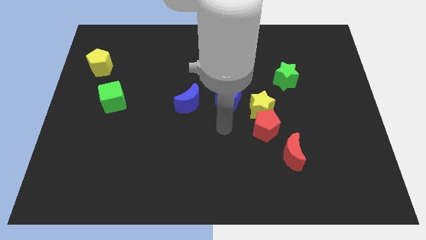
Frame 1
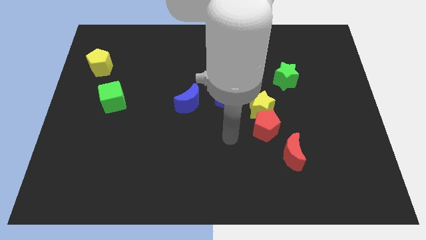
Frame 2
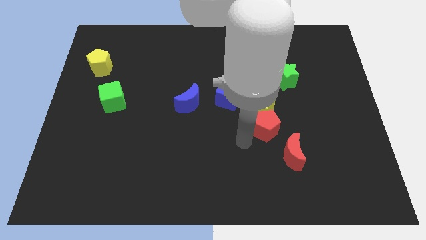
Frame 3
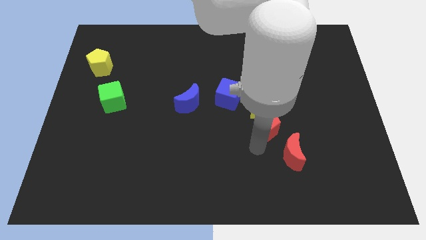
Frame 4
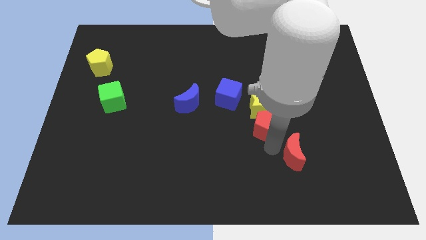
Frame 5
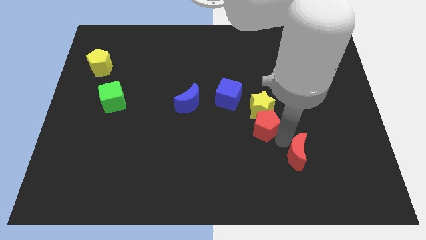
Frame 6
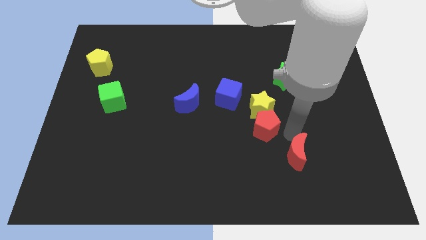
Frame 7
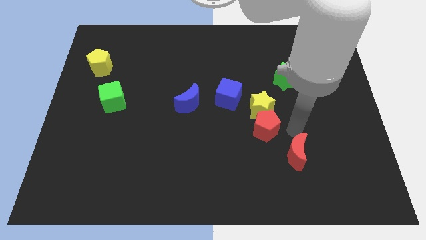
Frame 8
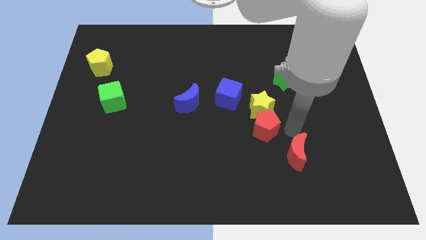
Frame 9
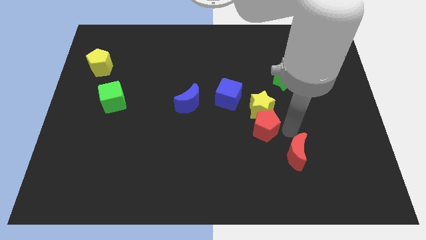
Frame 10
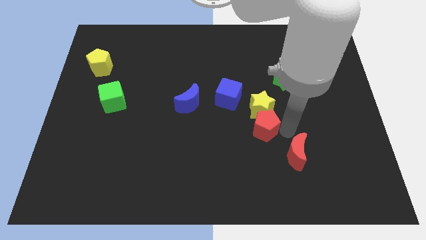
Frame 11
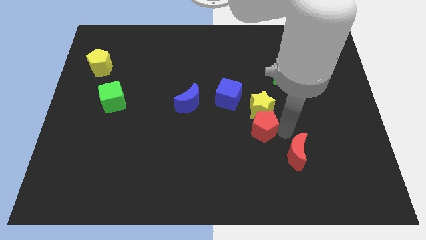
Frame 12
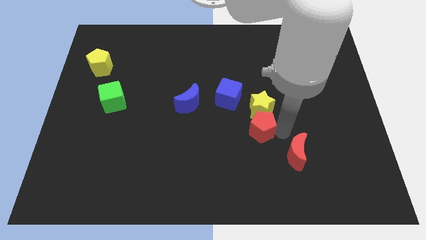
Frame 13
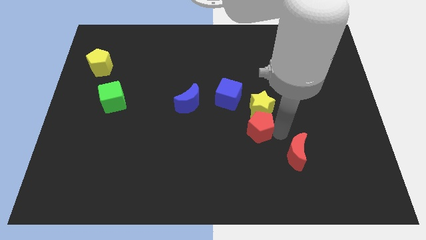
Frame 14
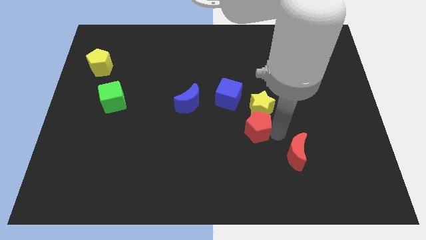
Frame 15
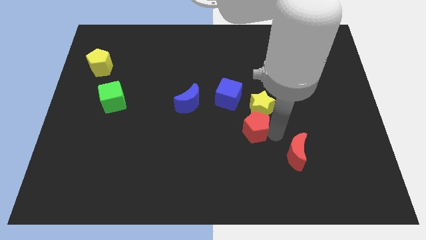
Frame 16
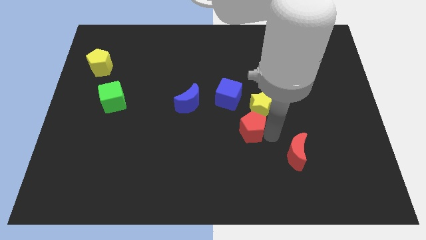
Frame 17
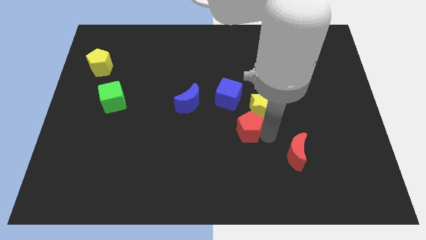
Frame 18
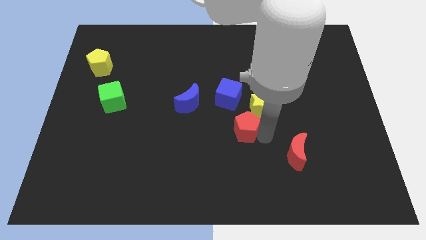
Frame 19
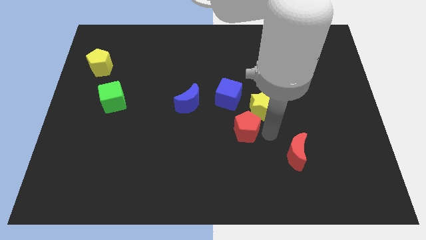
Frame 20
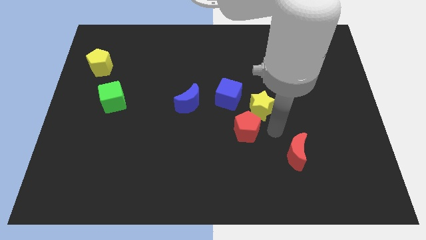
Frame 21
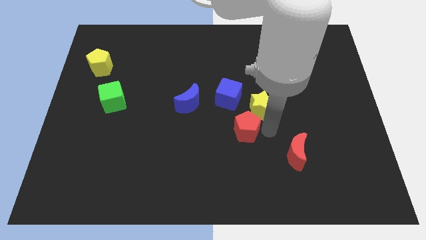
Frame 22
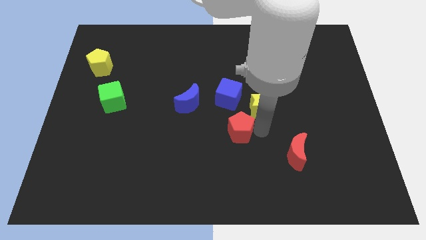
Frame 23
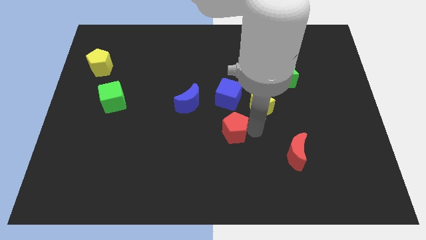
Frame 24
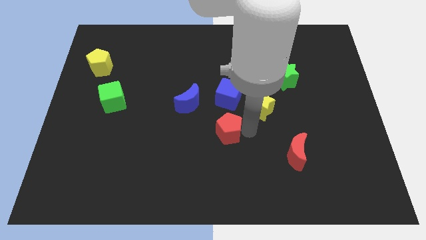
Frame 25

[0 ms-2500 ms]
separate the red pentagon from the yellow star and red moon

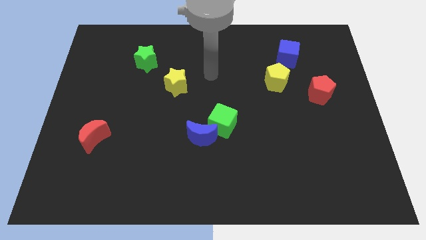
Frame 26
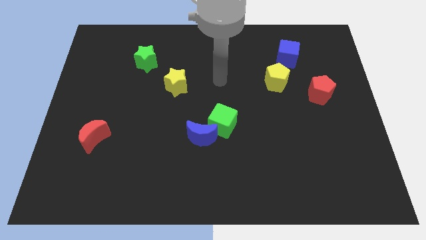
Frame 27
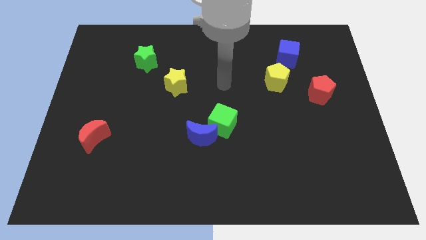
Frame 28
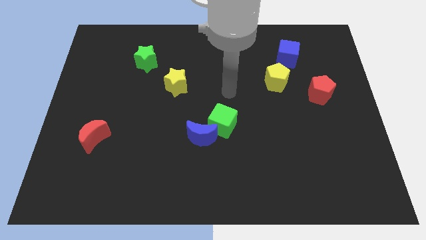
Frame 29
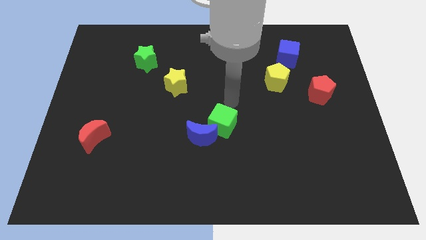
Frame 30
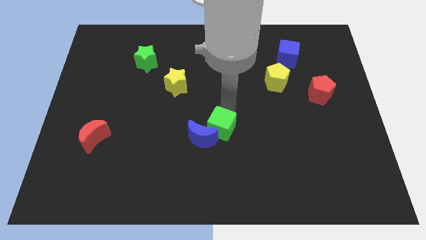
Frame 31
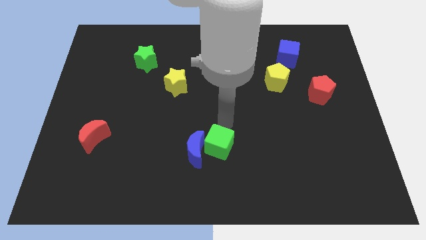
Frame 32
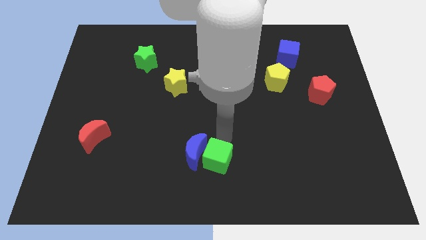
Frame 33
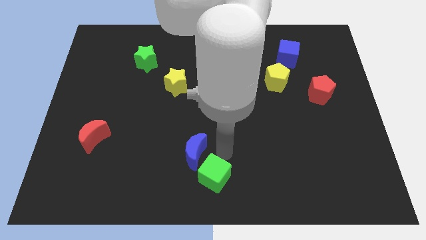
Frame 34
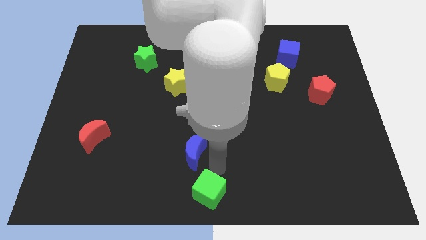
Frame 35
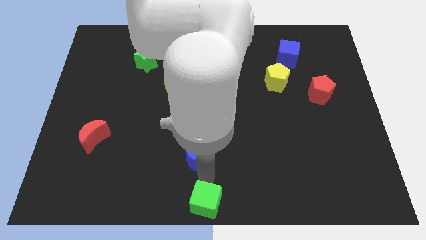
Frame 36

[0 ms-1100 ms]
move the blue moon away from the green cube

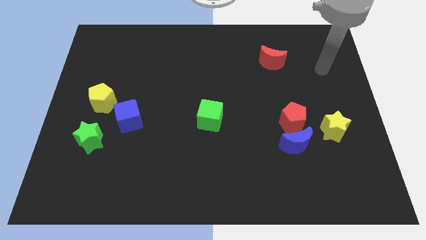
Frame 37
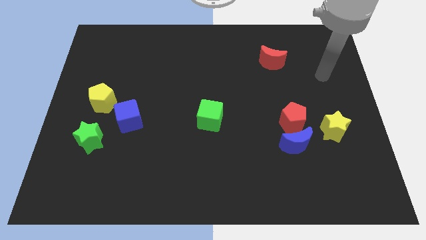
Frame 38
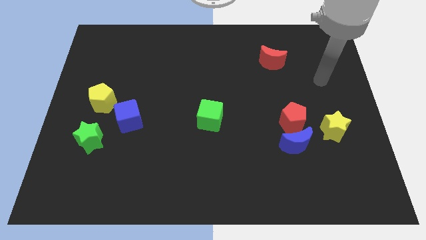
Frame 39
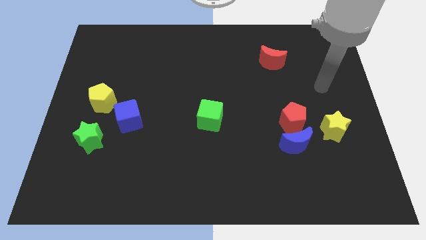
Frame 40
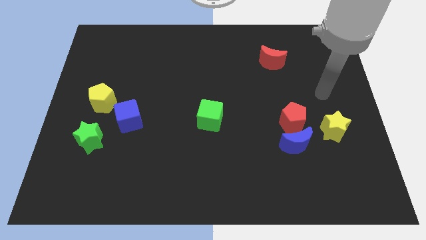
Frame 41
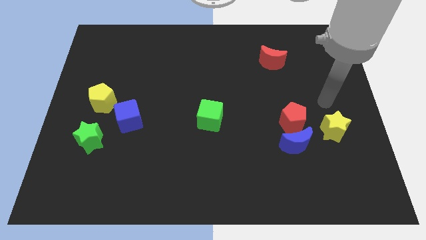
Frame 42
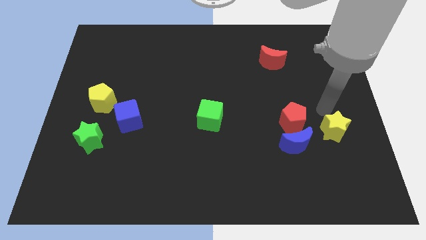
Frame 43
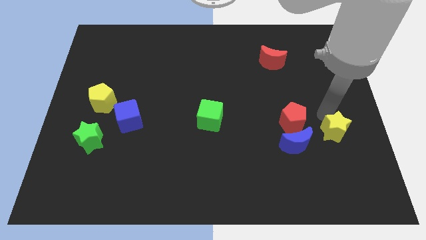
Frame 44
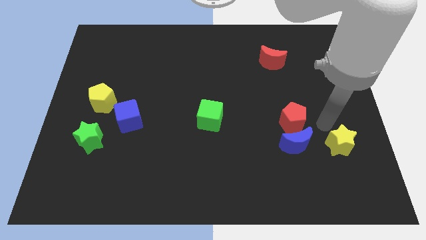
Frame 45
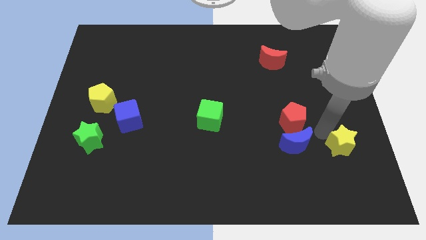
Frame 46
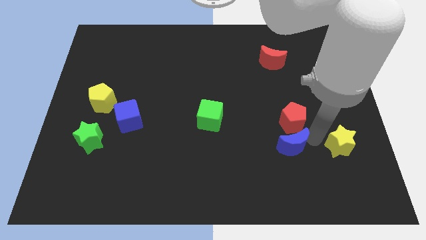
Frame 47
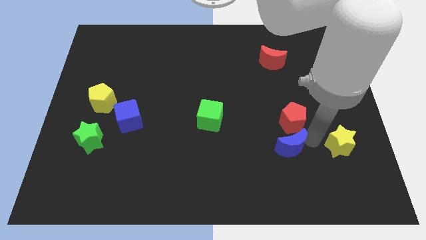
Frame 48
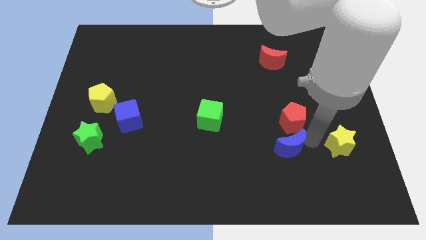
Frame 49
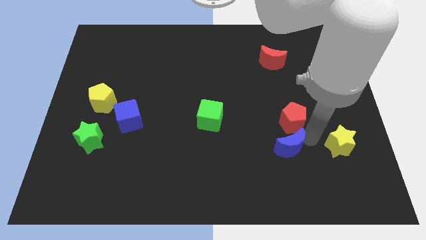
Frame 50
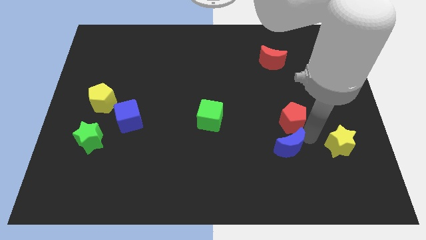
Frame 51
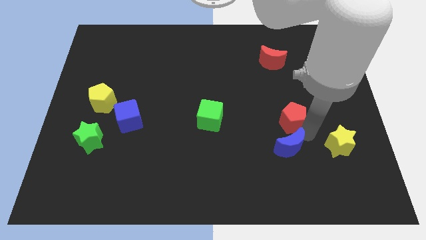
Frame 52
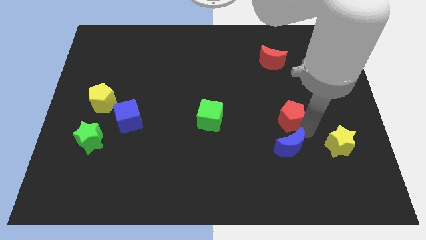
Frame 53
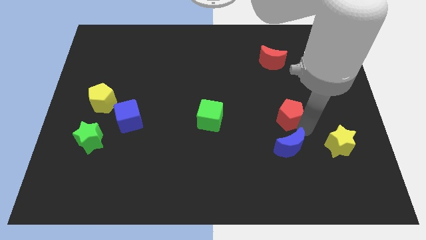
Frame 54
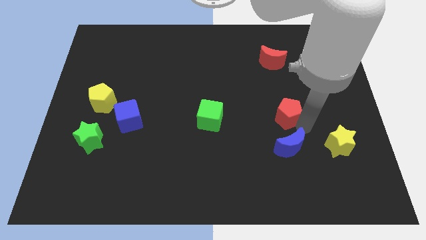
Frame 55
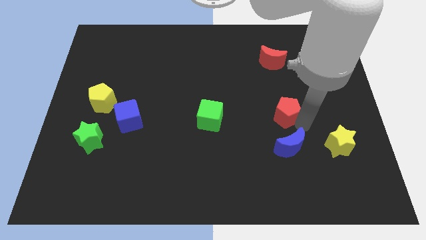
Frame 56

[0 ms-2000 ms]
pull the red pentagon apart from the blue moon and yellow star

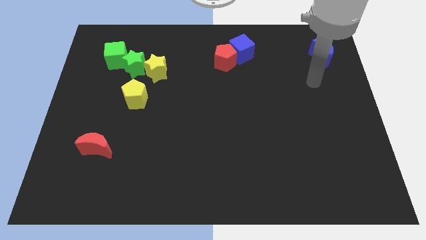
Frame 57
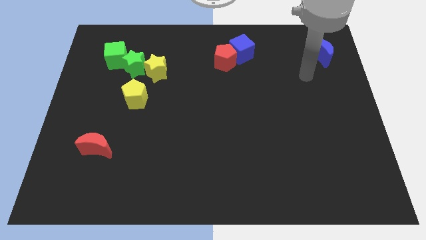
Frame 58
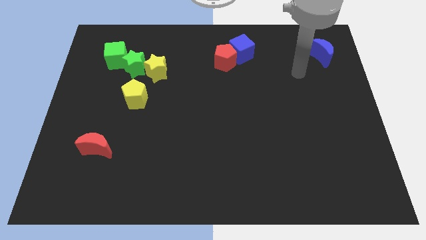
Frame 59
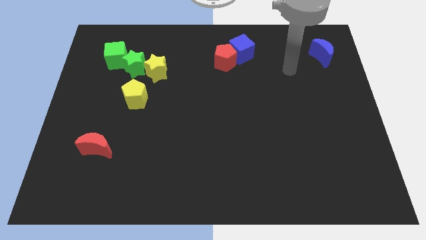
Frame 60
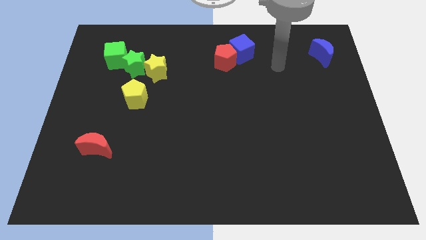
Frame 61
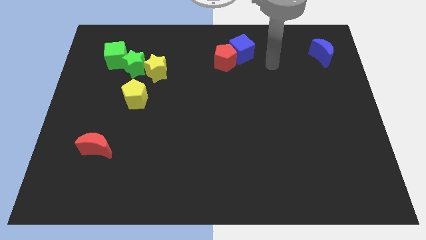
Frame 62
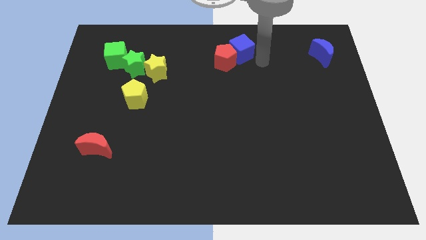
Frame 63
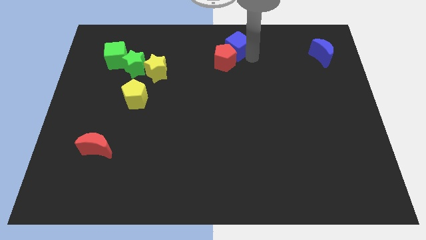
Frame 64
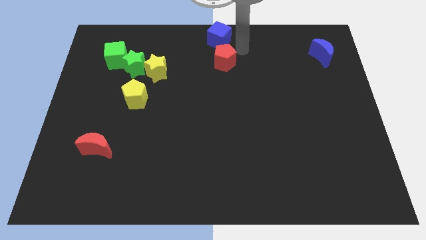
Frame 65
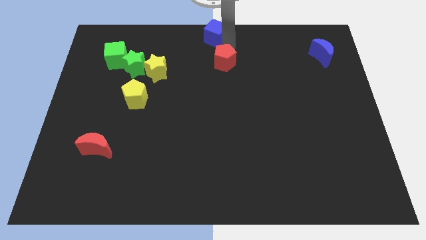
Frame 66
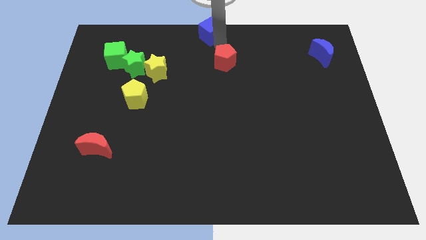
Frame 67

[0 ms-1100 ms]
pull the red pentagon apart from the blue cube

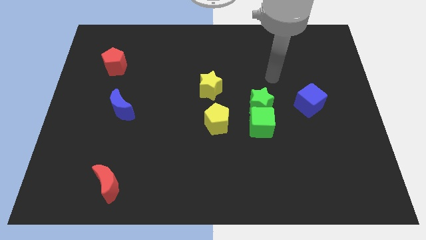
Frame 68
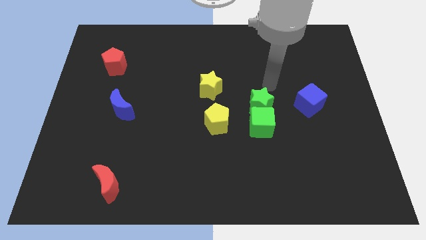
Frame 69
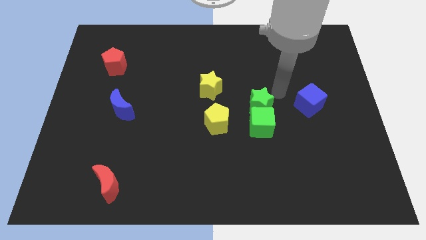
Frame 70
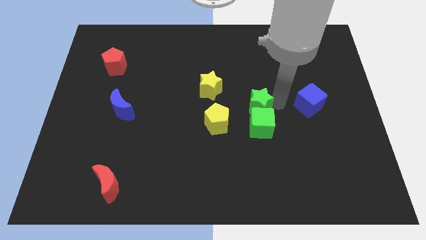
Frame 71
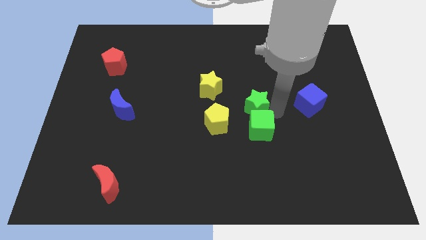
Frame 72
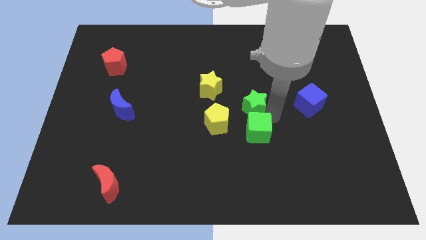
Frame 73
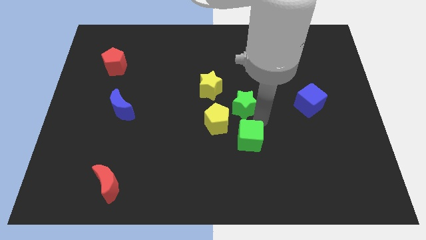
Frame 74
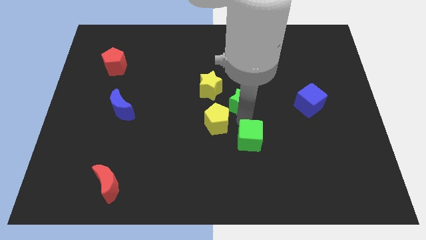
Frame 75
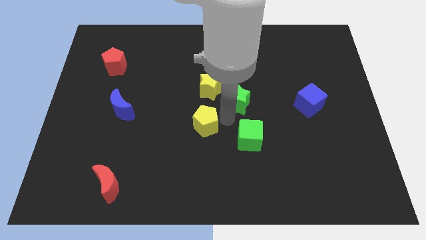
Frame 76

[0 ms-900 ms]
pull the green star apart from the green cube

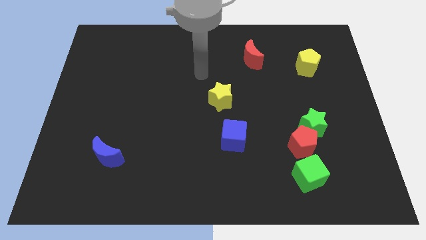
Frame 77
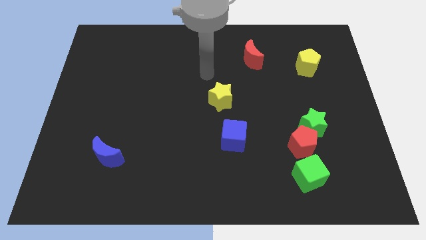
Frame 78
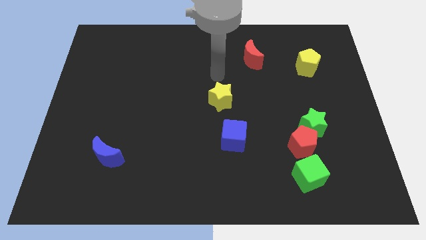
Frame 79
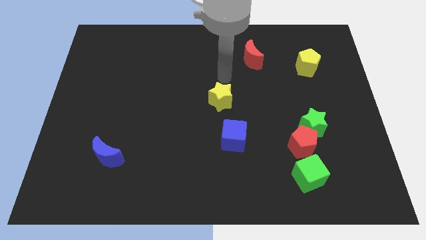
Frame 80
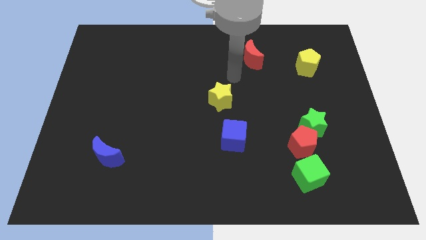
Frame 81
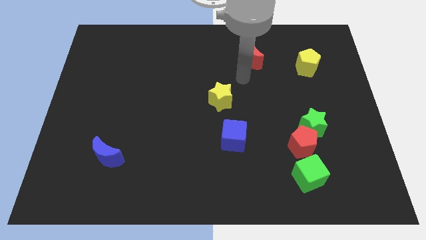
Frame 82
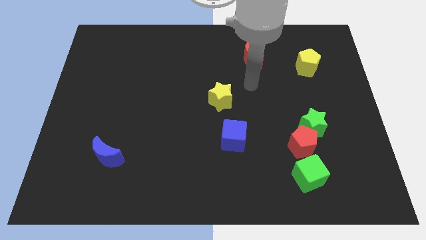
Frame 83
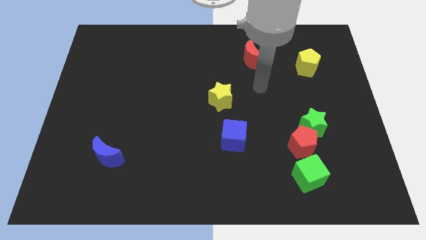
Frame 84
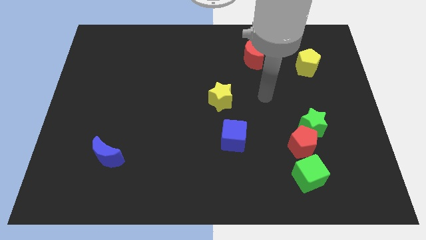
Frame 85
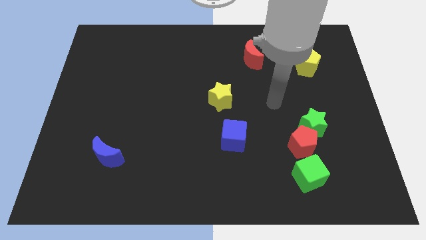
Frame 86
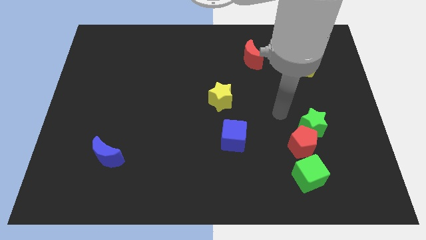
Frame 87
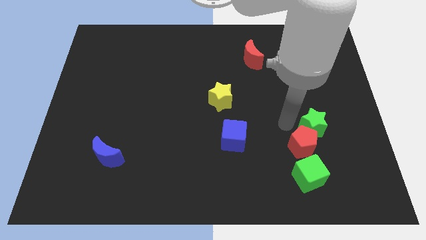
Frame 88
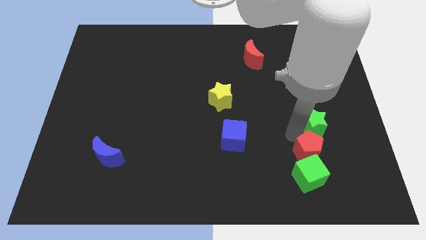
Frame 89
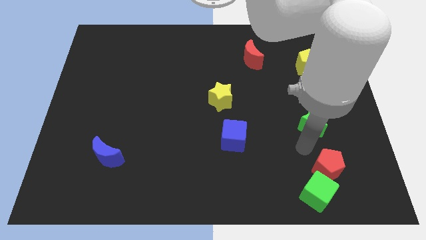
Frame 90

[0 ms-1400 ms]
pull the green star apart from the red pentagon

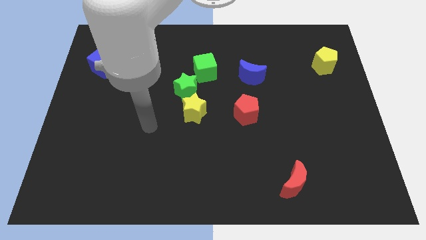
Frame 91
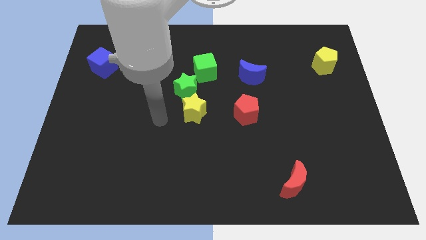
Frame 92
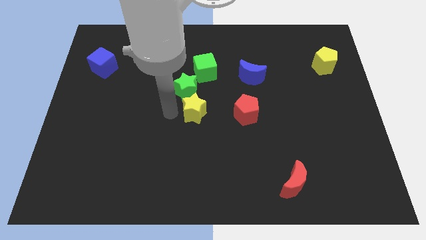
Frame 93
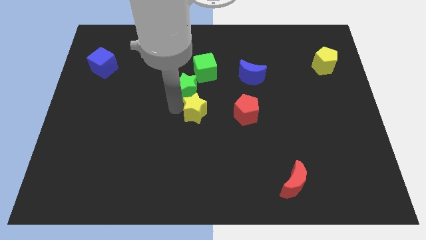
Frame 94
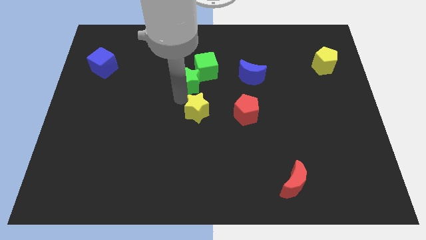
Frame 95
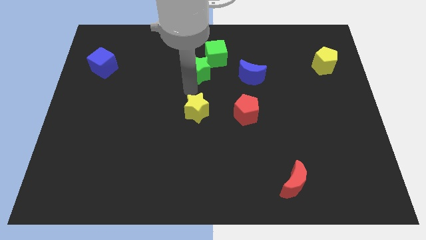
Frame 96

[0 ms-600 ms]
move the yellow star away from the green star
